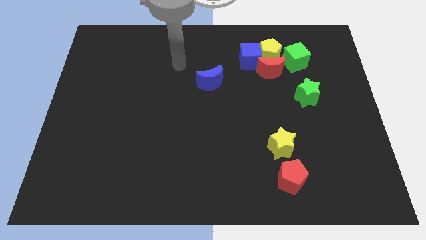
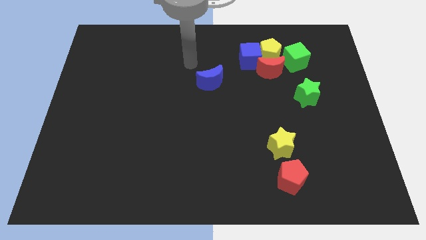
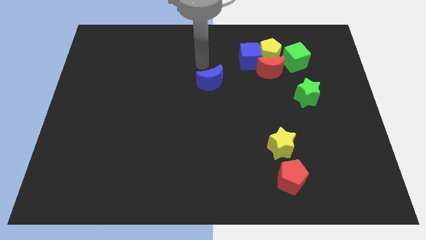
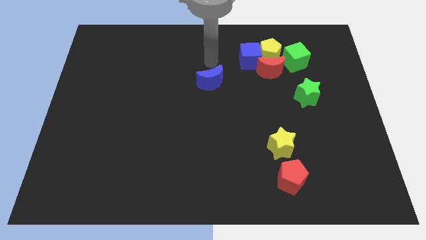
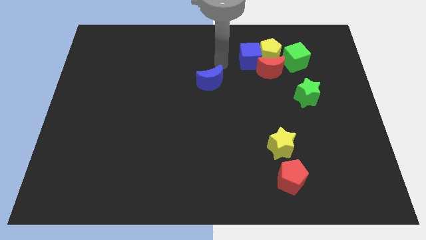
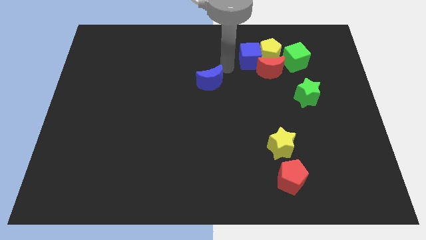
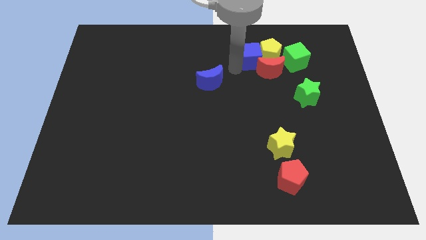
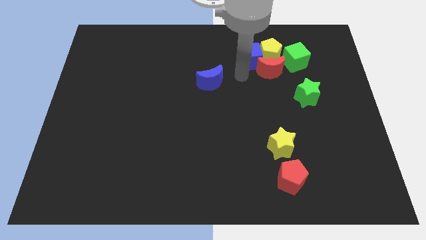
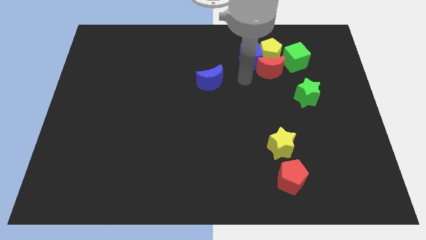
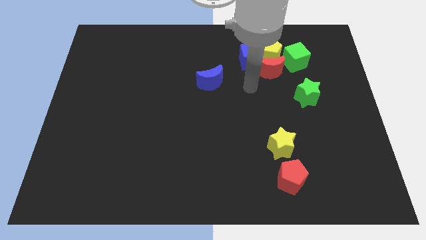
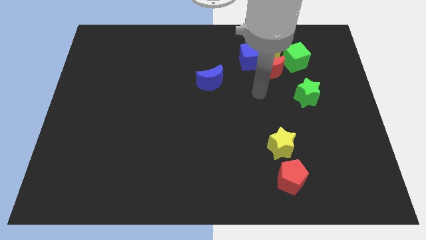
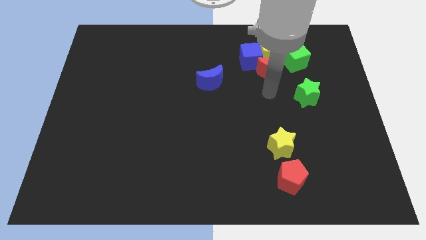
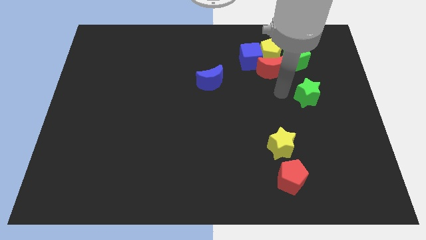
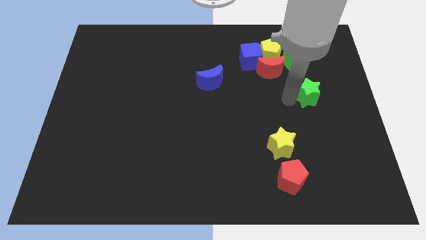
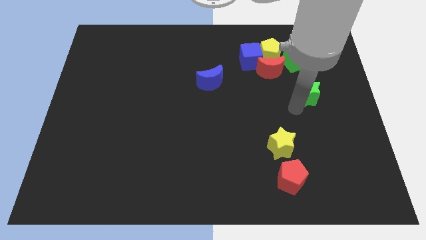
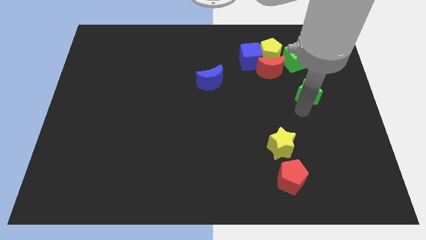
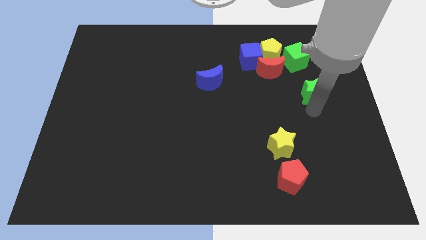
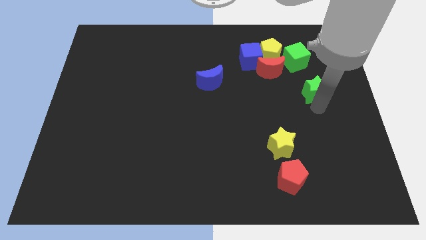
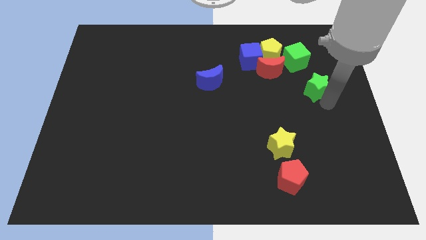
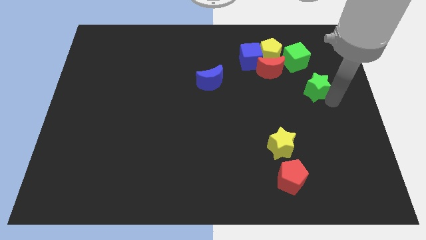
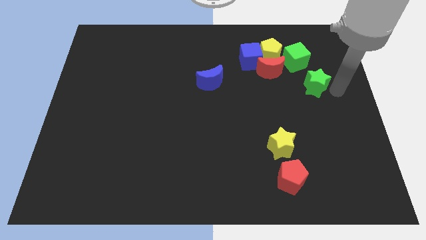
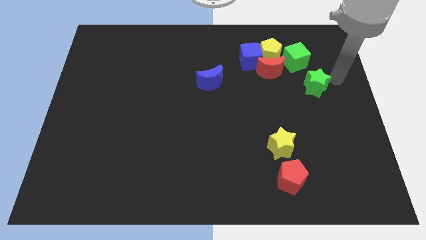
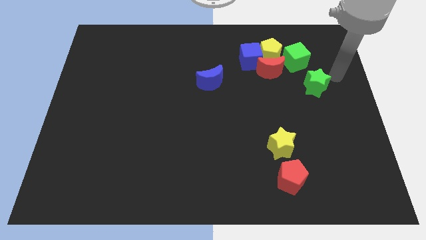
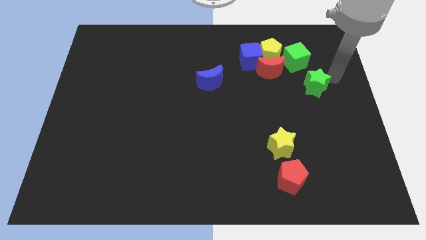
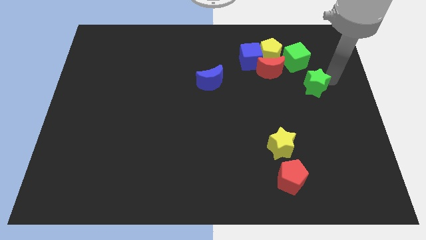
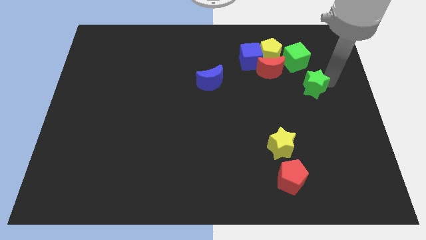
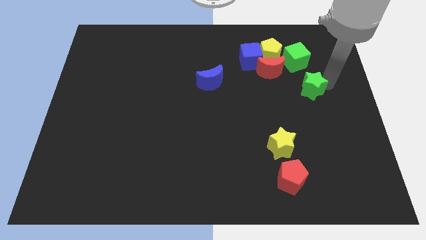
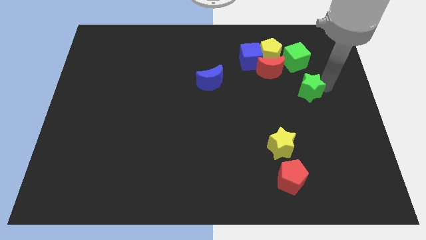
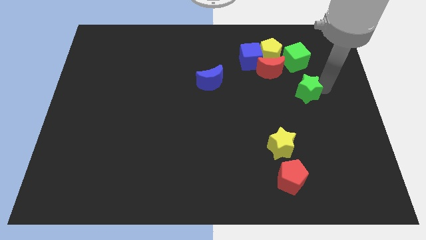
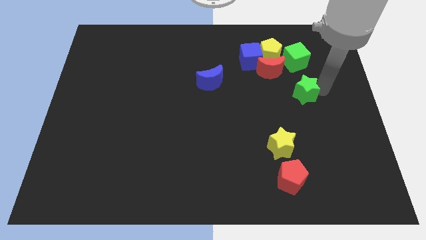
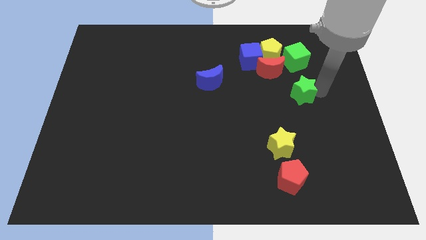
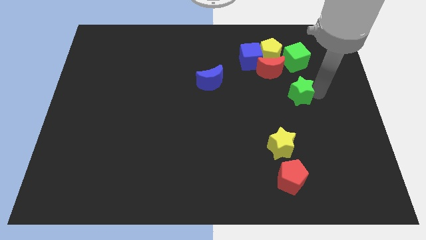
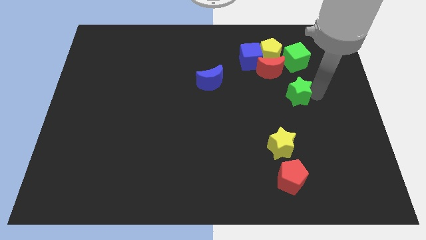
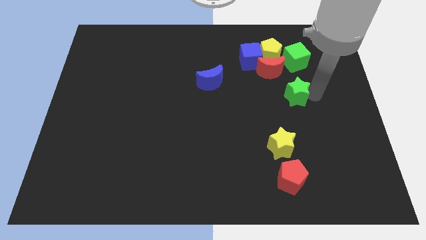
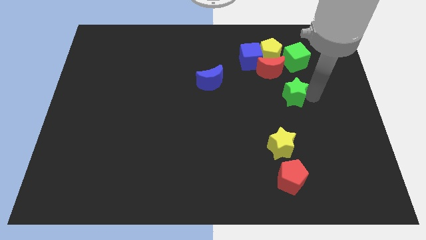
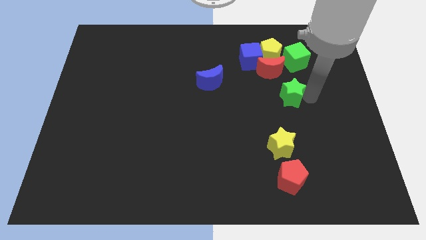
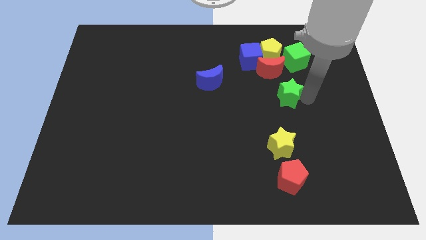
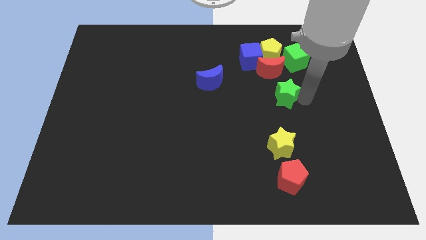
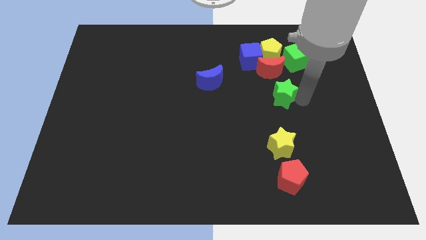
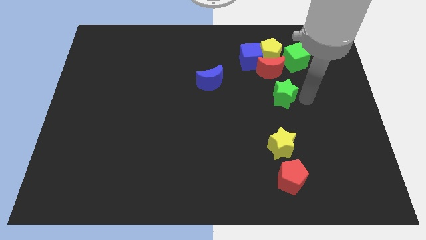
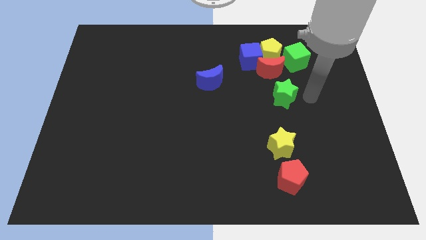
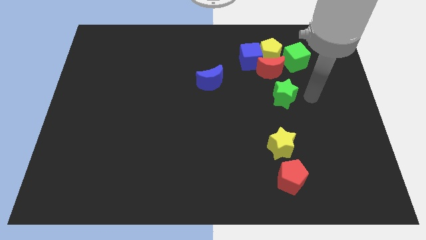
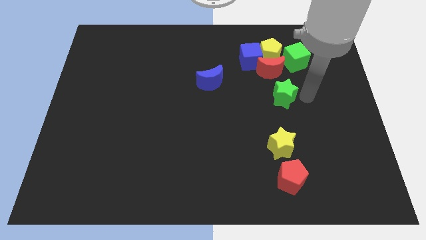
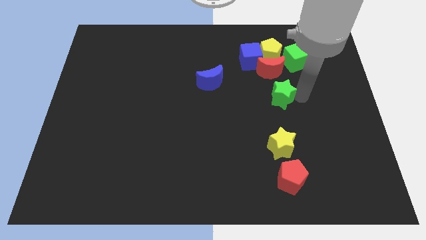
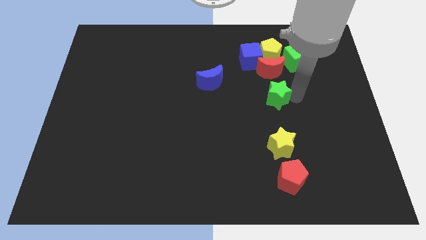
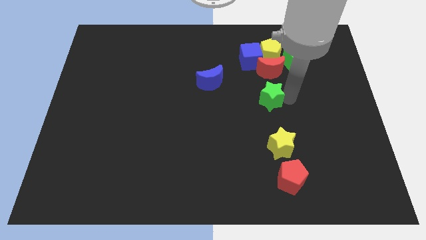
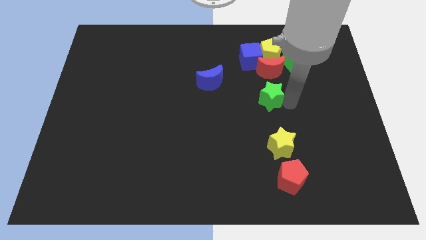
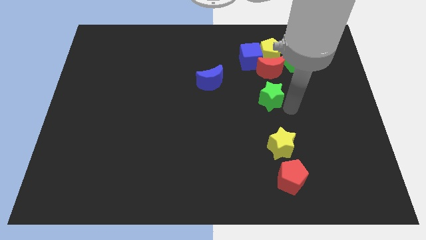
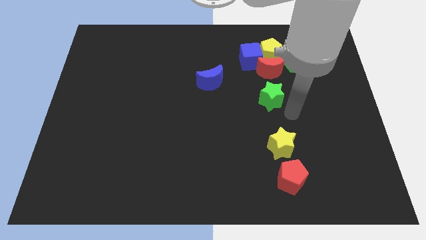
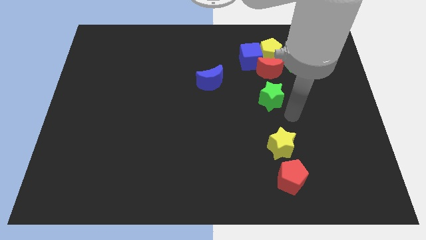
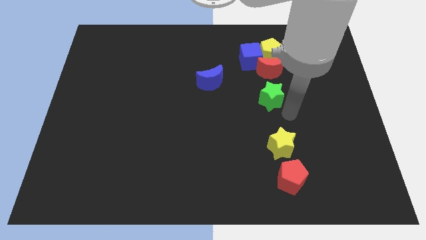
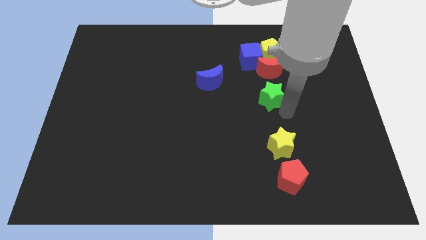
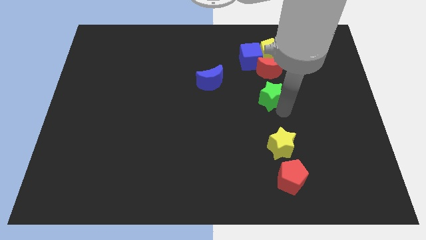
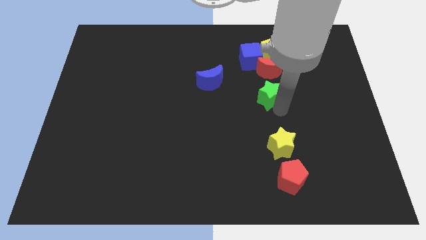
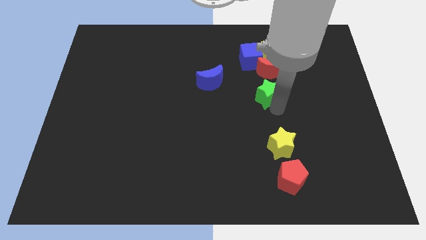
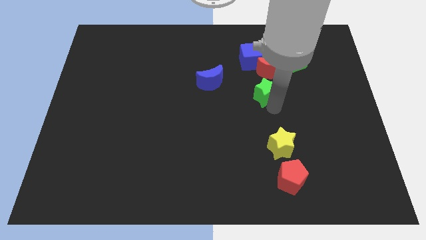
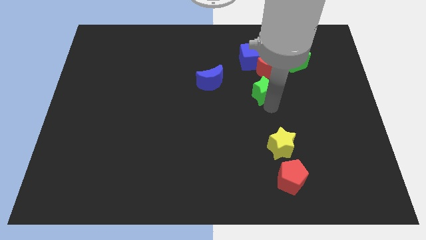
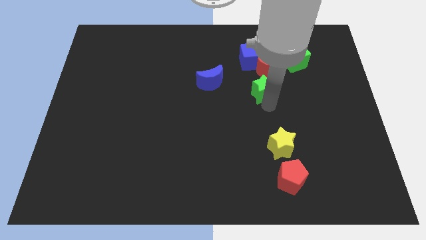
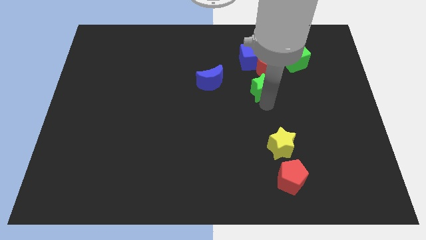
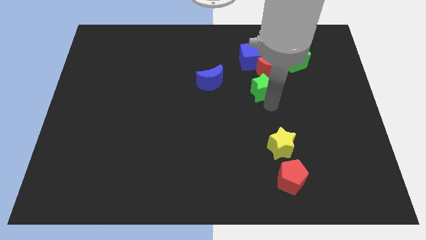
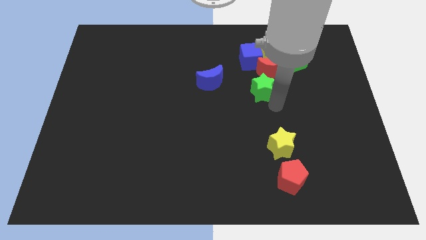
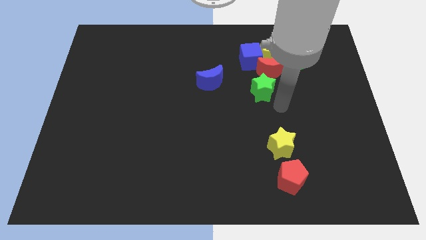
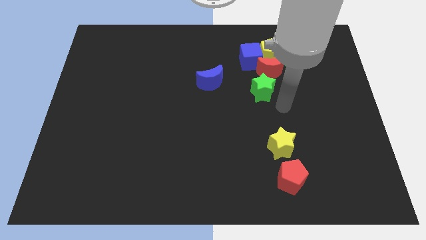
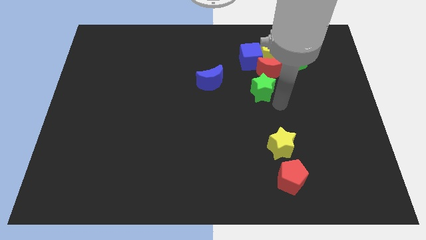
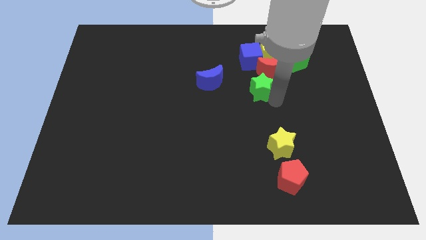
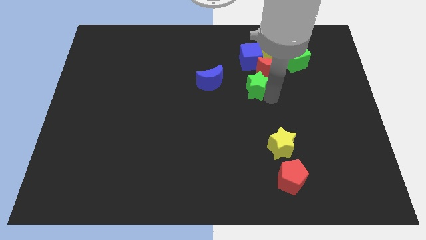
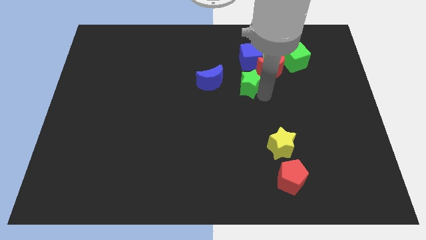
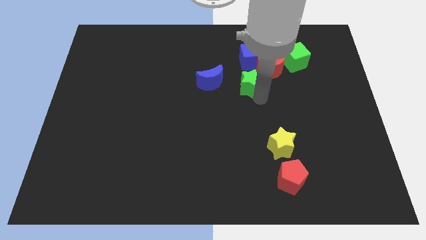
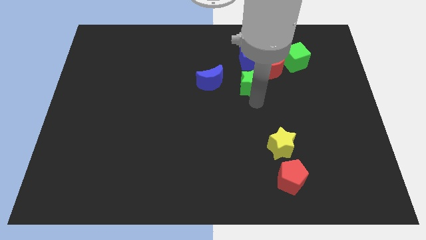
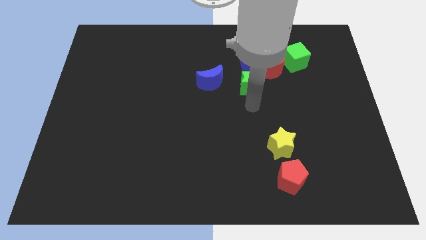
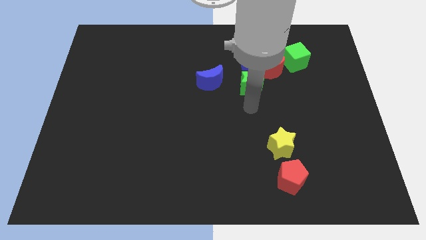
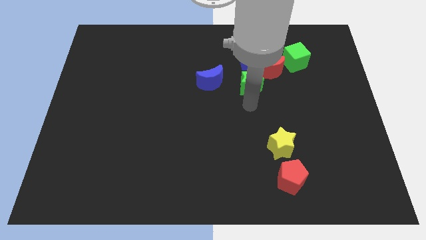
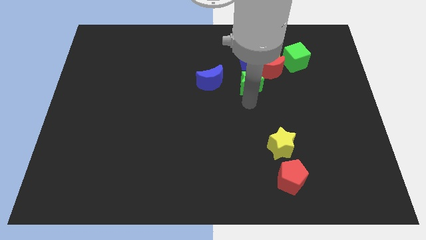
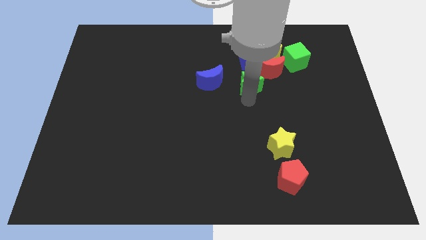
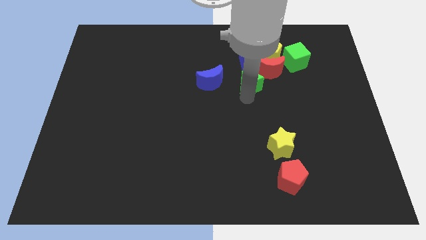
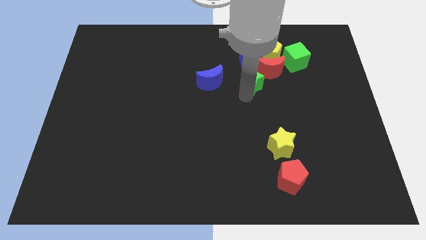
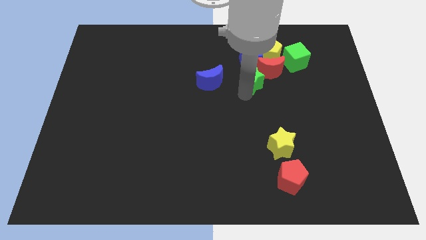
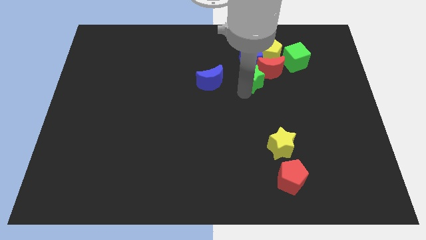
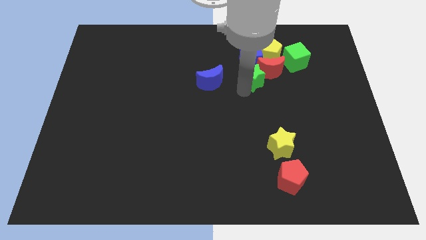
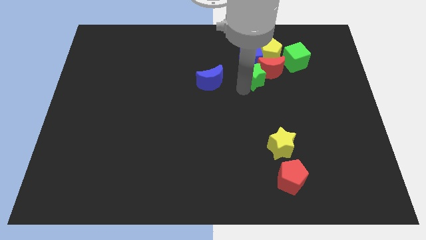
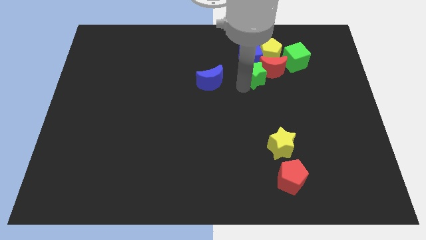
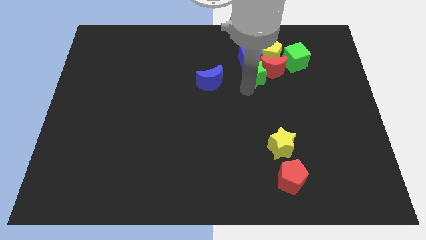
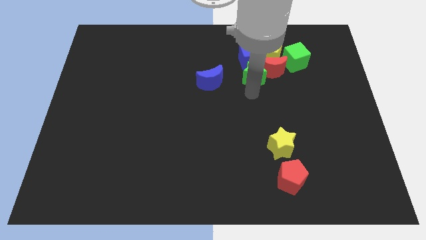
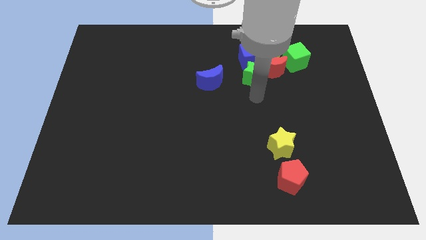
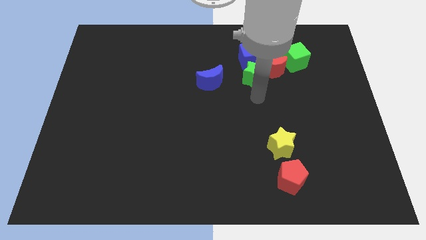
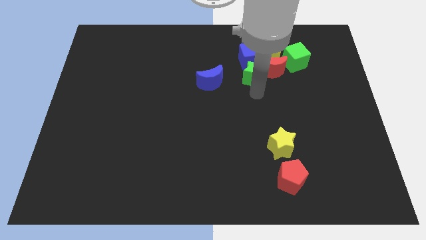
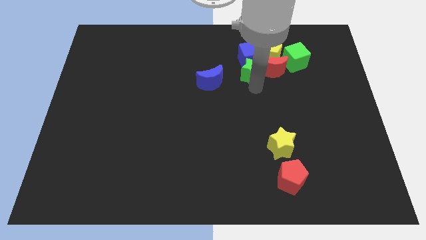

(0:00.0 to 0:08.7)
put the green star towards the blue cube
